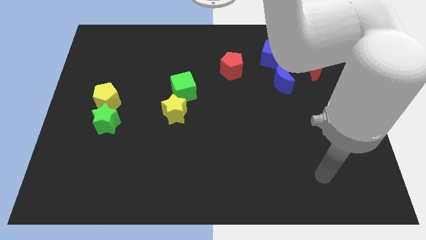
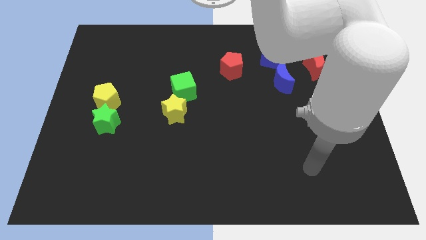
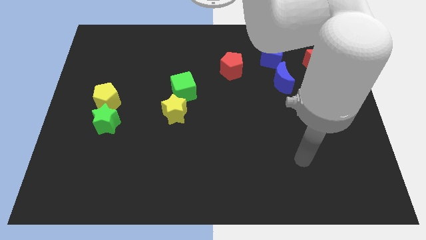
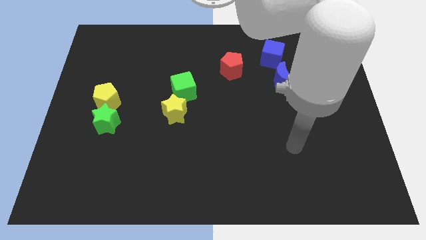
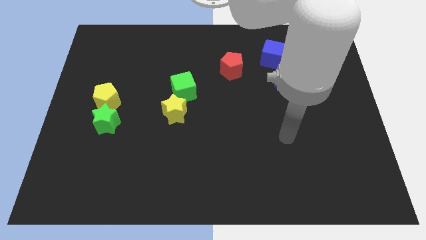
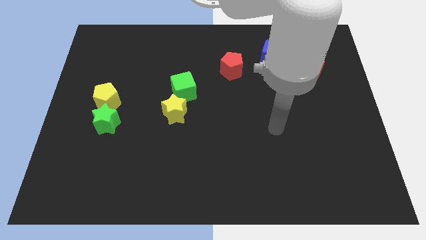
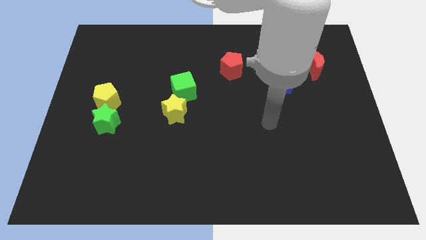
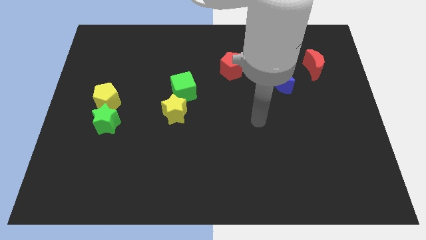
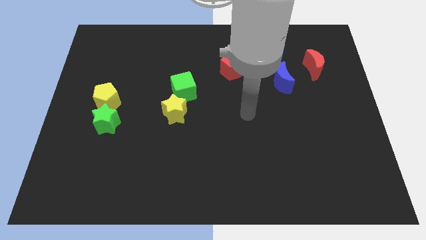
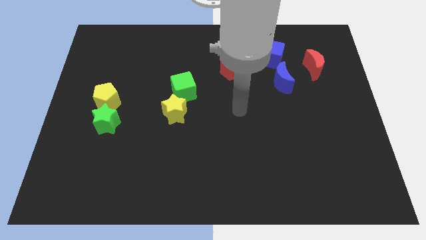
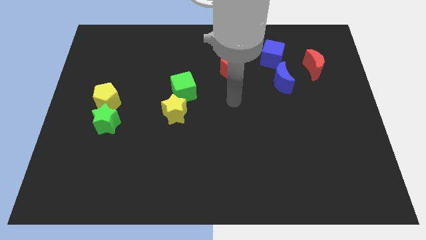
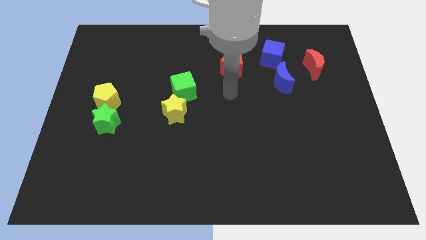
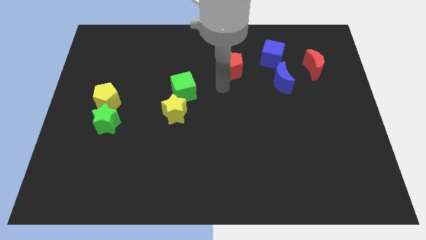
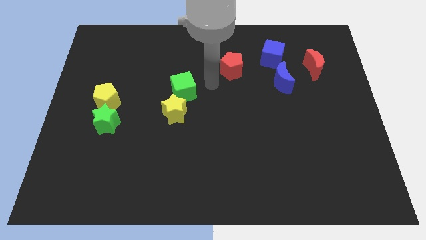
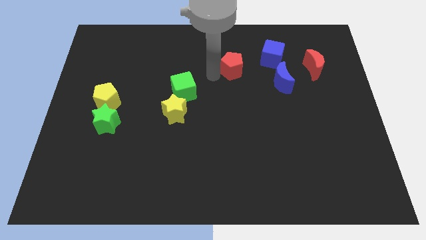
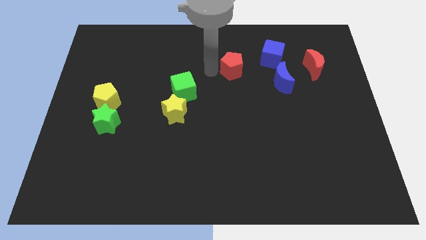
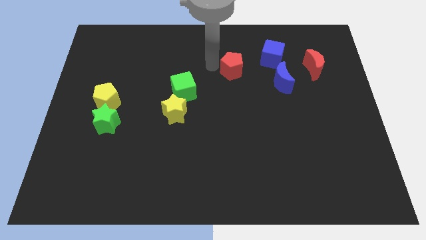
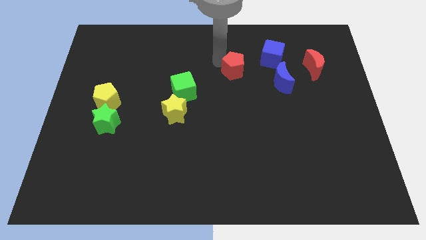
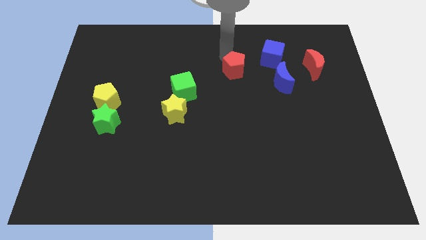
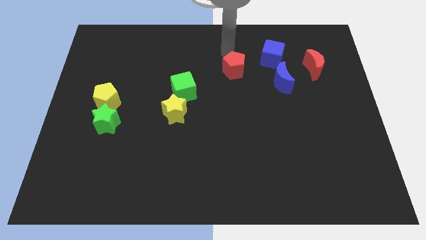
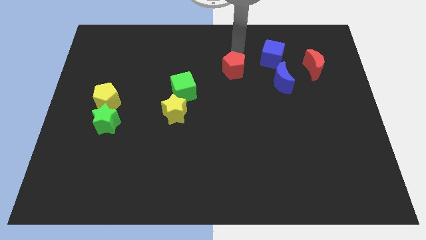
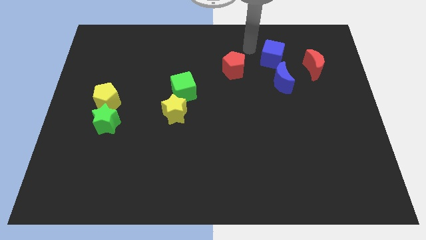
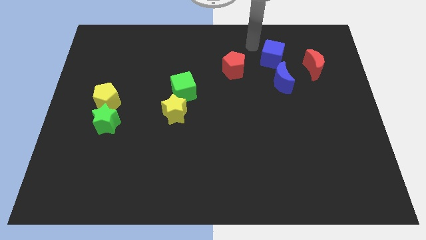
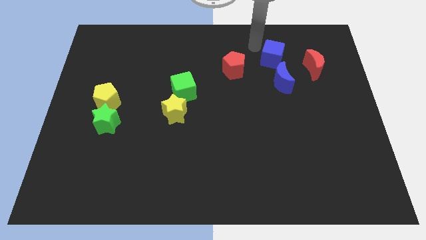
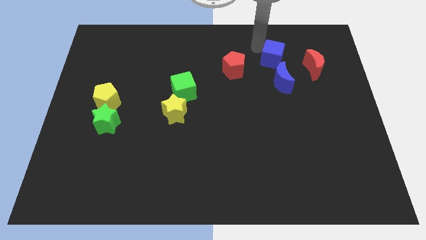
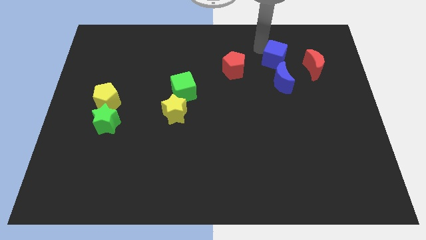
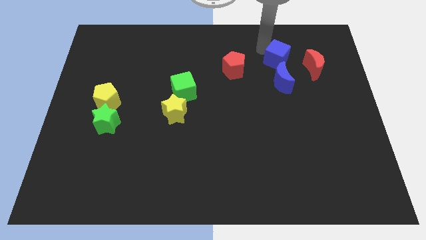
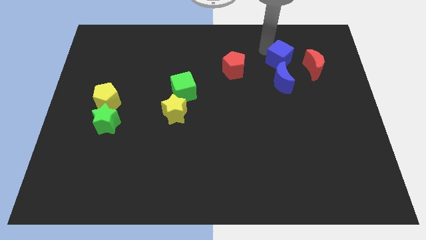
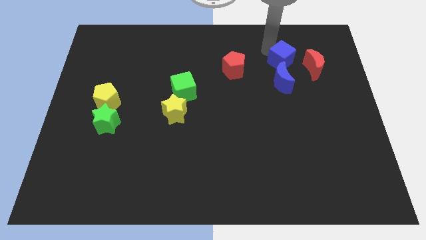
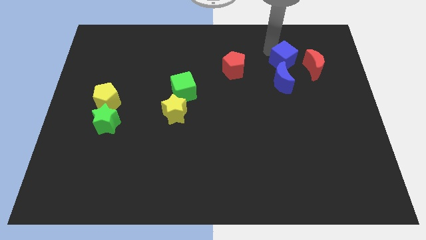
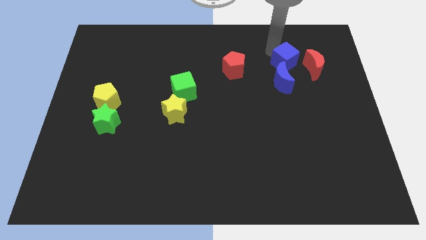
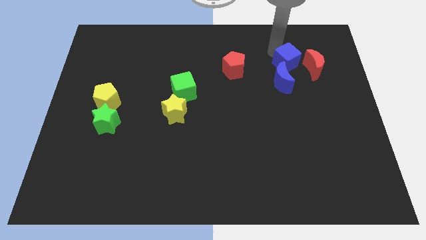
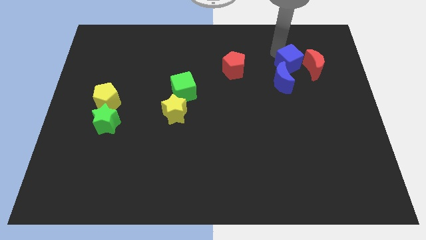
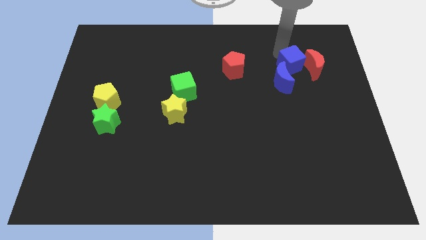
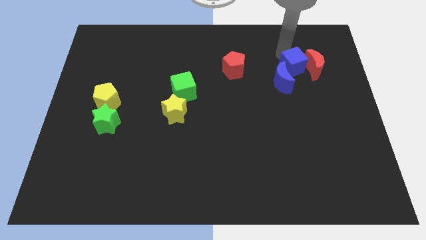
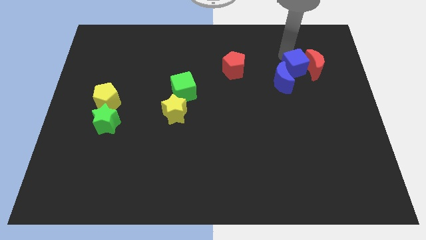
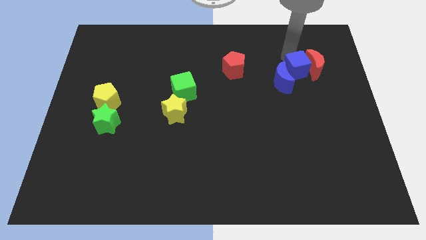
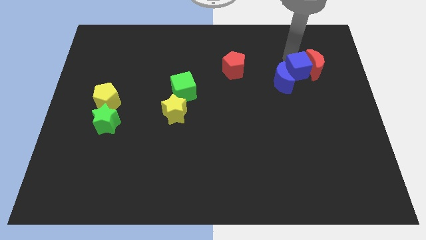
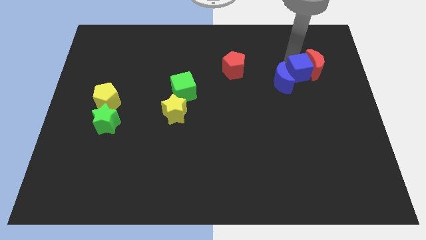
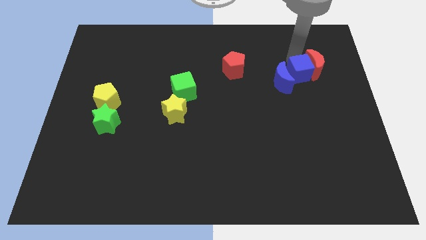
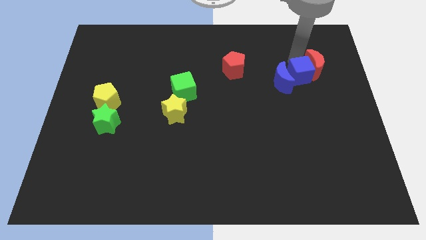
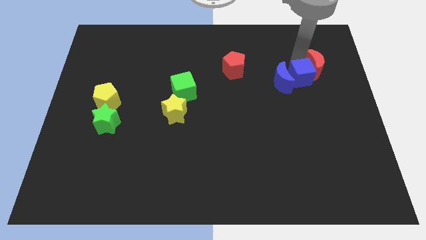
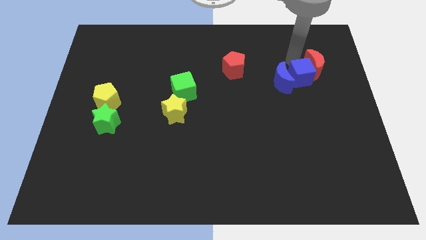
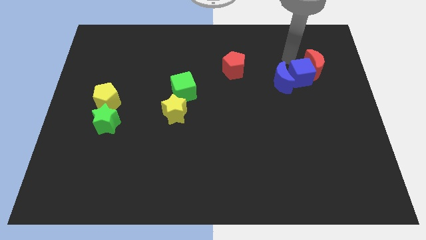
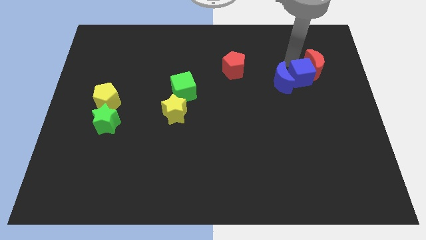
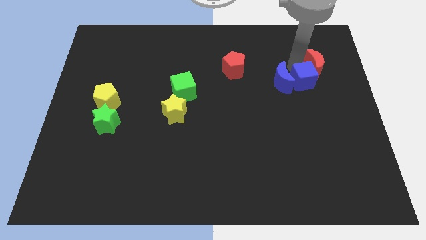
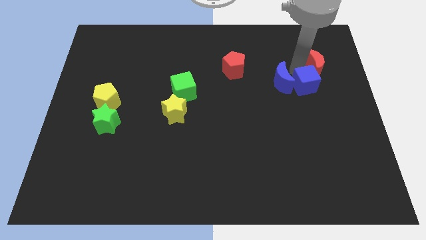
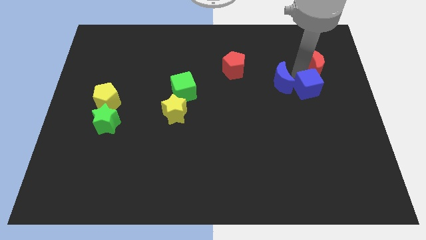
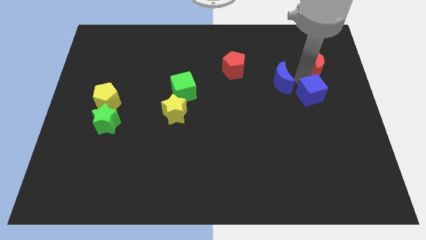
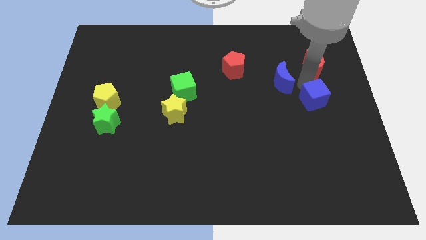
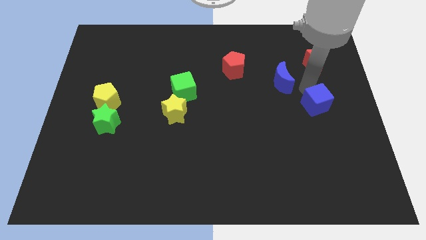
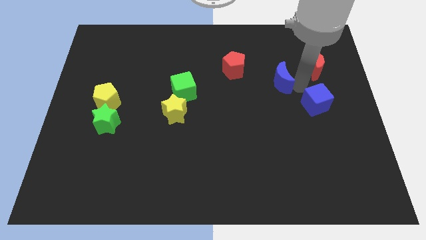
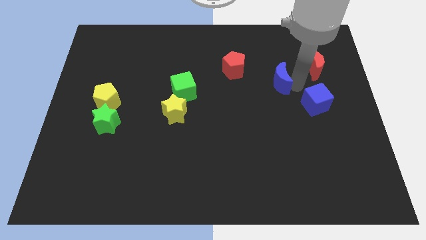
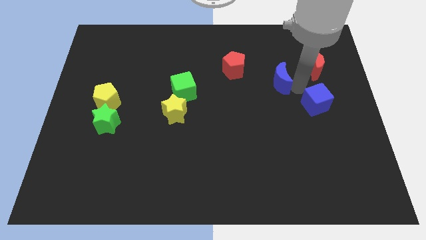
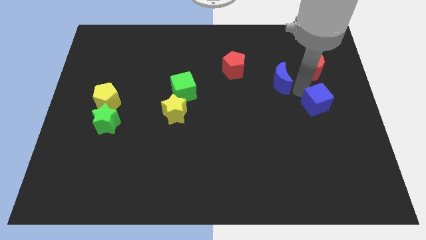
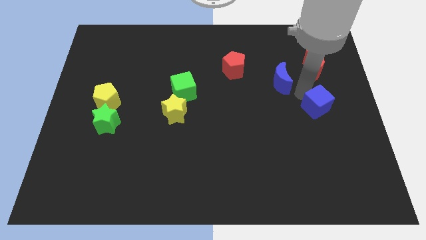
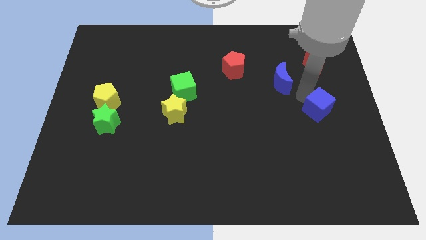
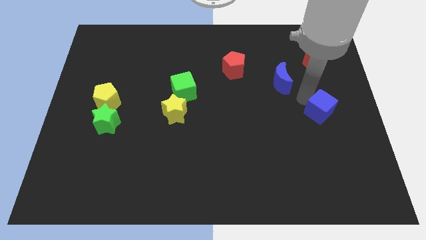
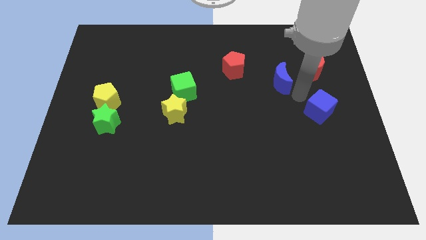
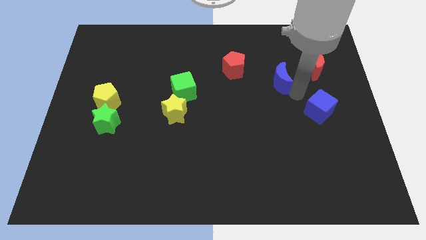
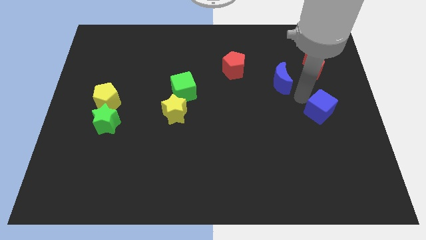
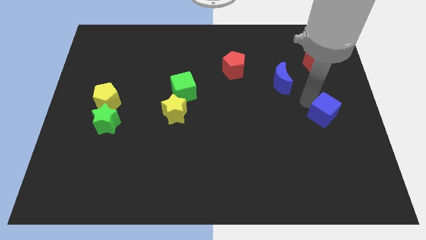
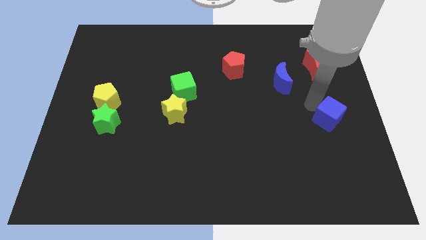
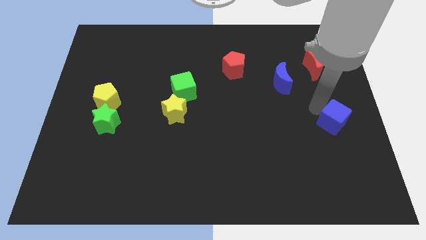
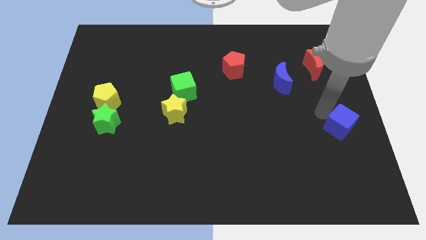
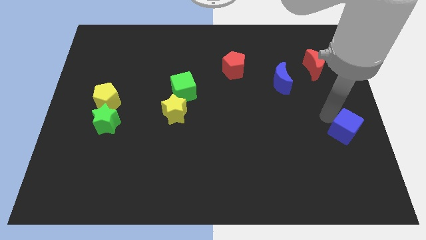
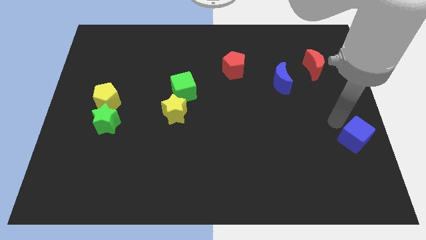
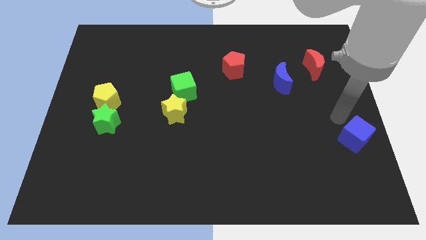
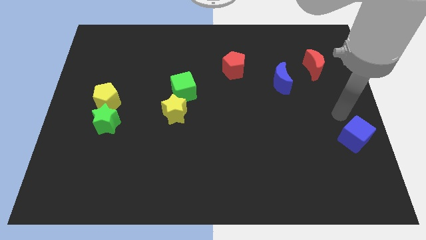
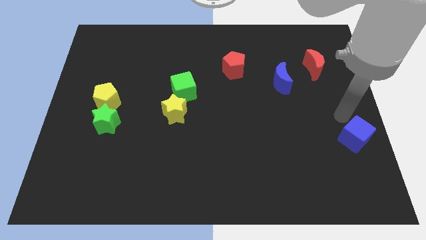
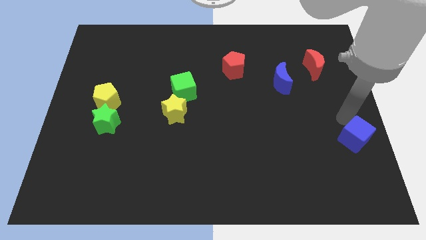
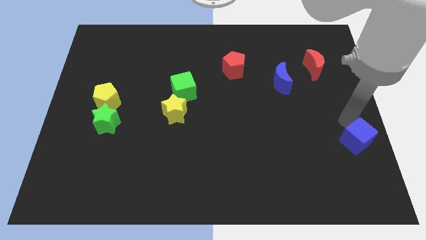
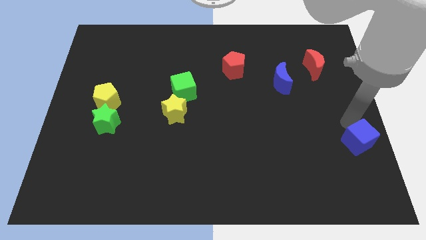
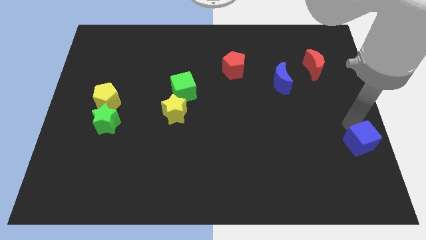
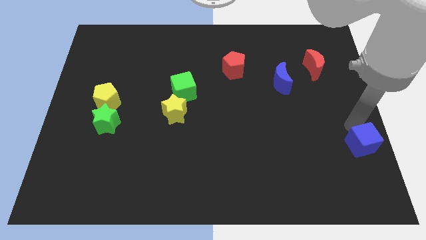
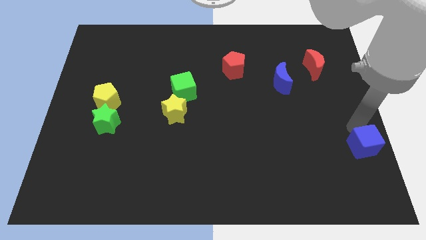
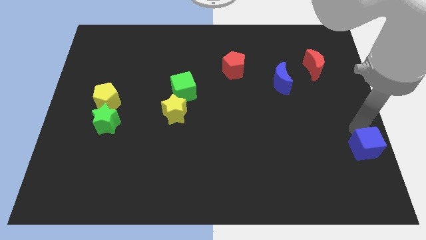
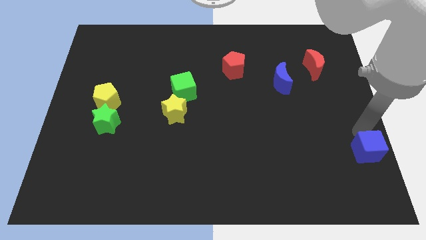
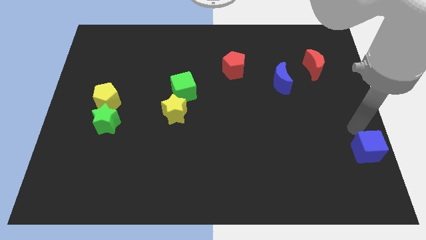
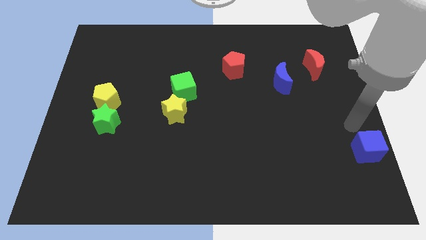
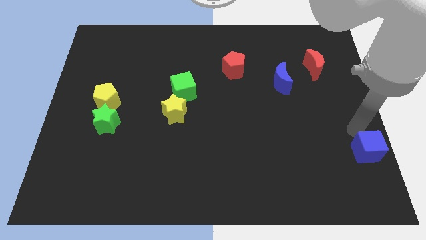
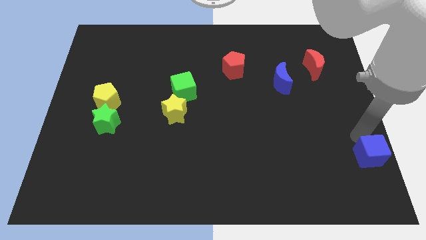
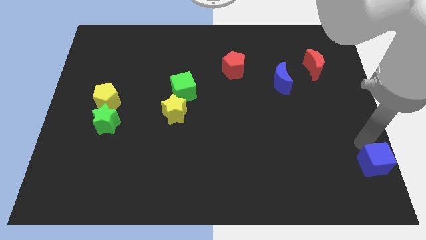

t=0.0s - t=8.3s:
put the blue cube to the lower right corner
